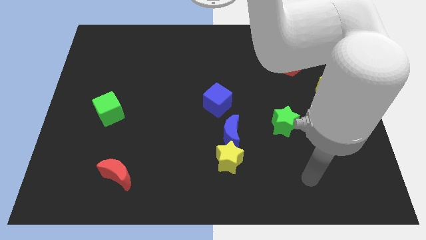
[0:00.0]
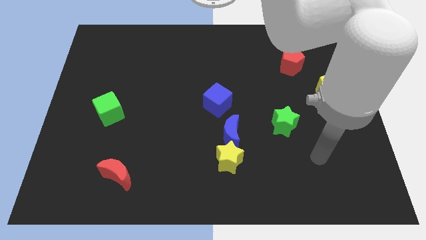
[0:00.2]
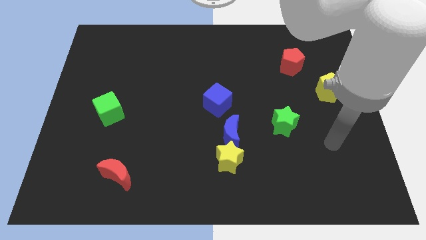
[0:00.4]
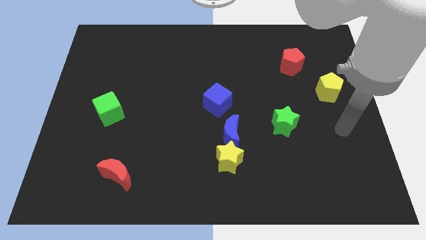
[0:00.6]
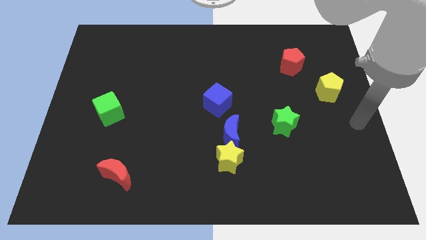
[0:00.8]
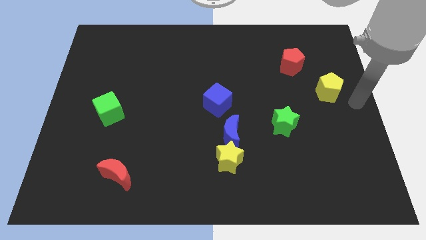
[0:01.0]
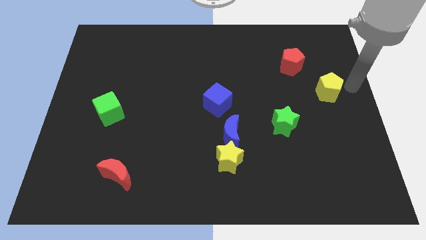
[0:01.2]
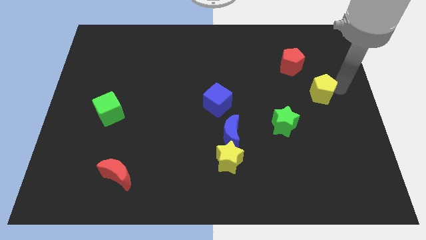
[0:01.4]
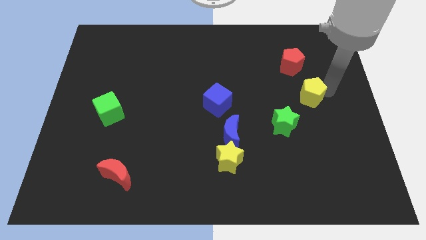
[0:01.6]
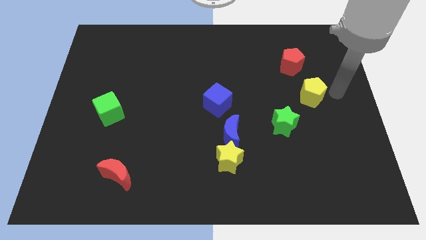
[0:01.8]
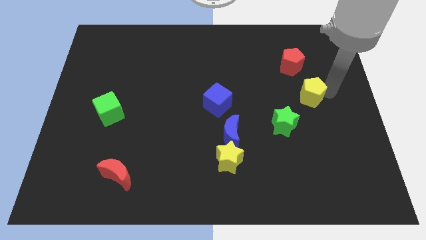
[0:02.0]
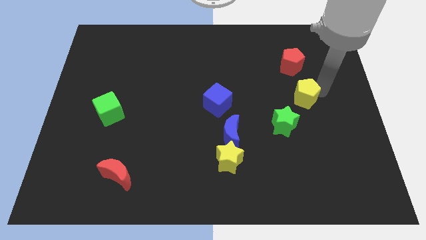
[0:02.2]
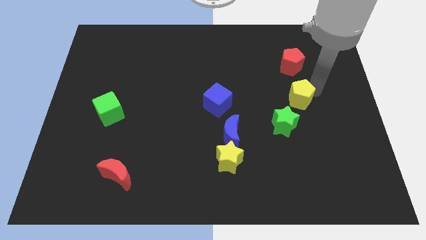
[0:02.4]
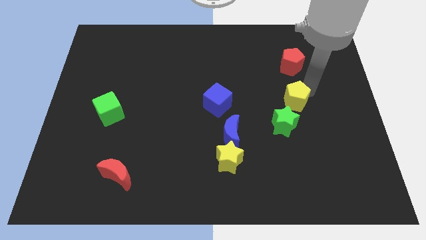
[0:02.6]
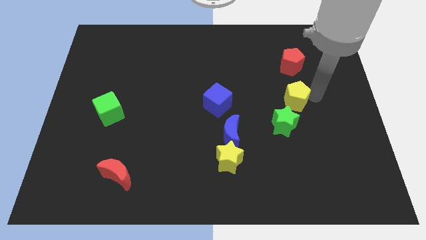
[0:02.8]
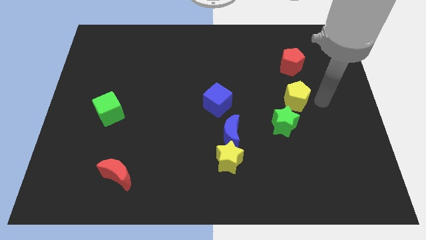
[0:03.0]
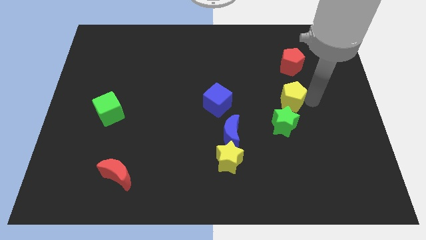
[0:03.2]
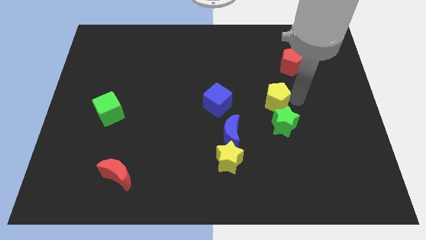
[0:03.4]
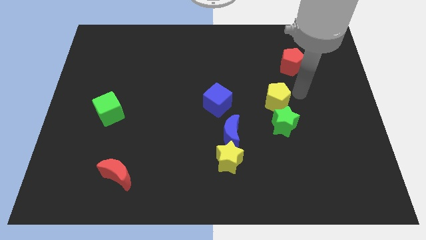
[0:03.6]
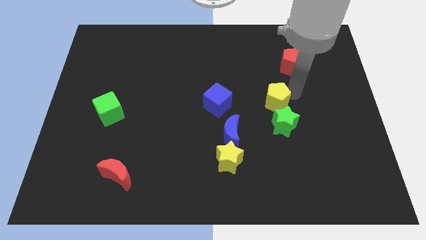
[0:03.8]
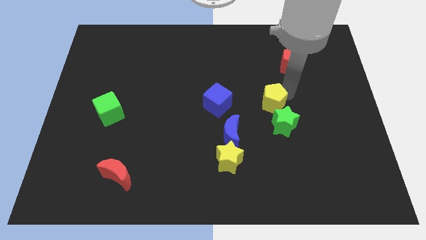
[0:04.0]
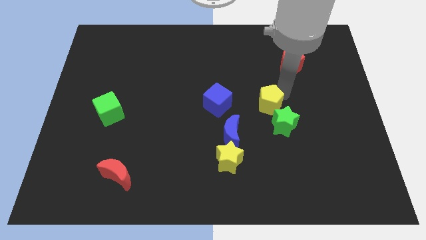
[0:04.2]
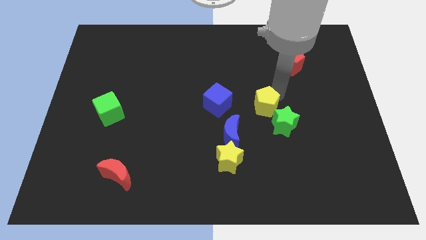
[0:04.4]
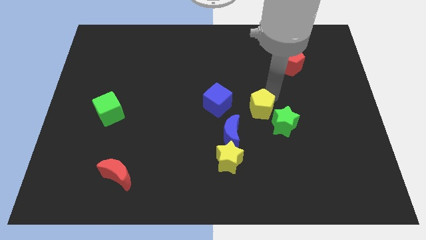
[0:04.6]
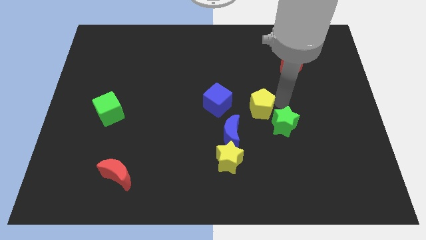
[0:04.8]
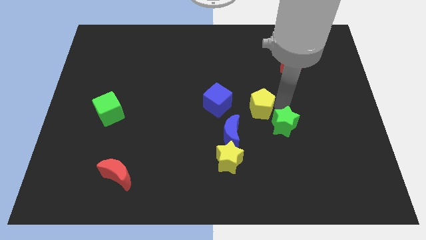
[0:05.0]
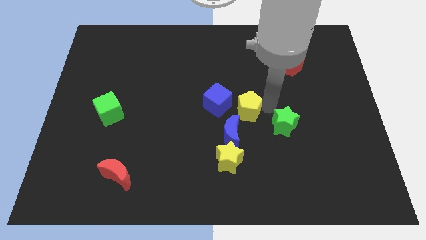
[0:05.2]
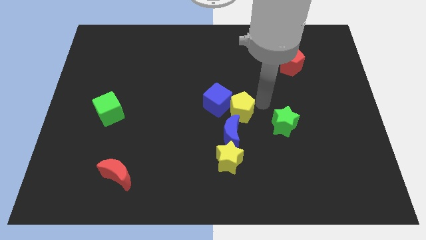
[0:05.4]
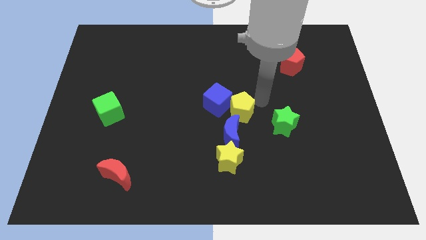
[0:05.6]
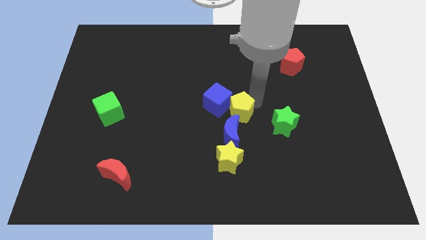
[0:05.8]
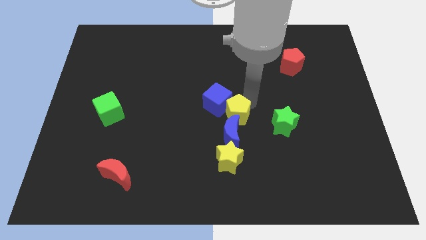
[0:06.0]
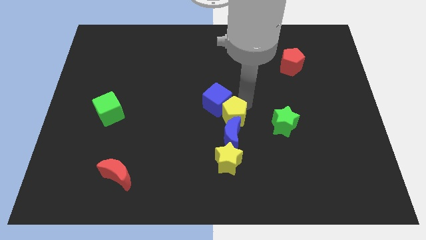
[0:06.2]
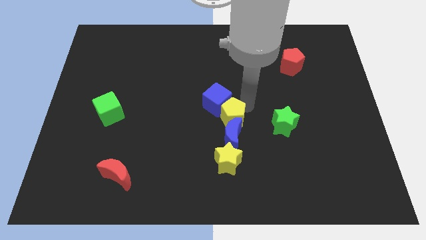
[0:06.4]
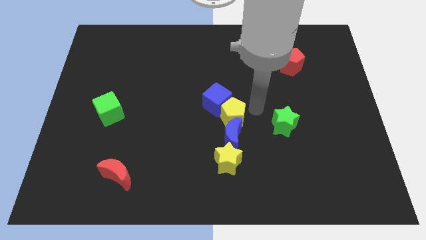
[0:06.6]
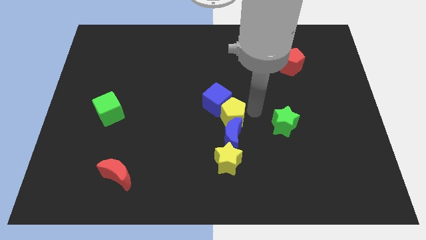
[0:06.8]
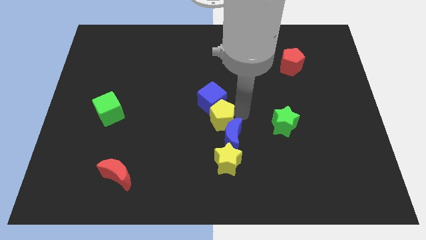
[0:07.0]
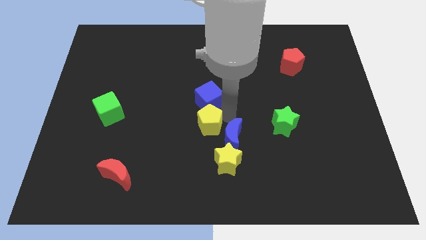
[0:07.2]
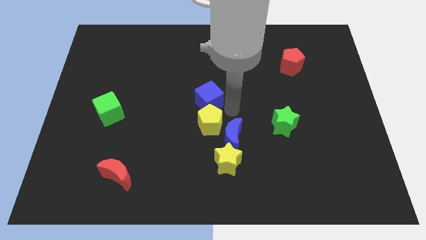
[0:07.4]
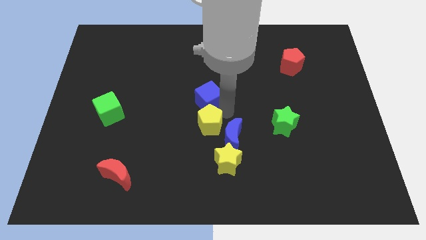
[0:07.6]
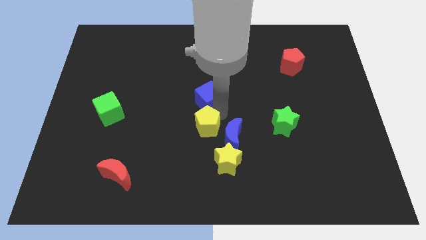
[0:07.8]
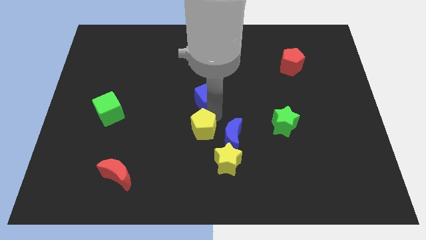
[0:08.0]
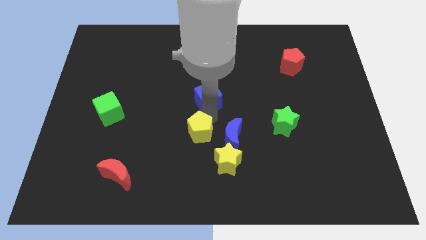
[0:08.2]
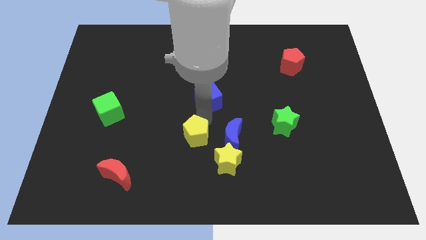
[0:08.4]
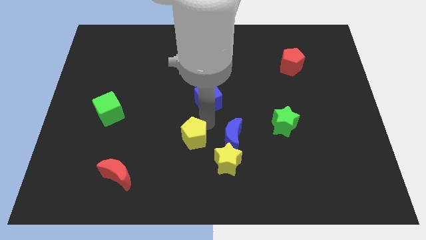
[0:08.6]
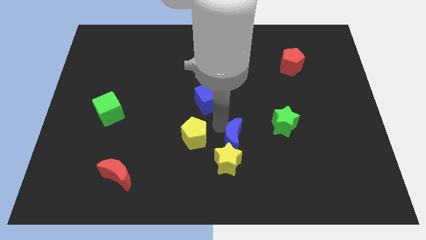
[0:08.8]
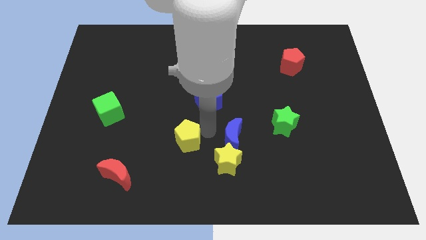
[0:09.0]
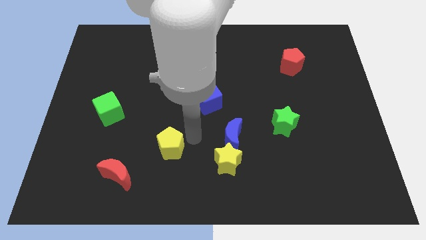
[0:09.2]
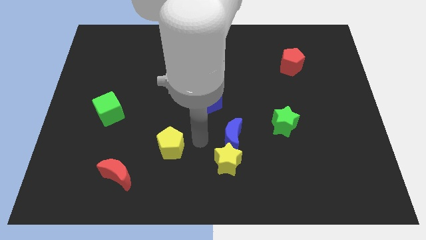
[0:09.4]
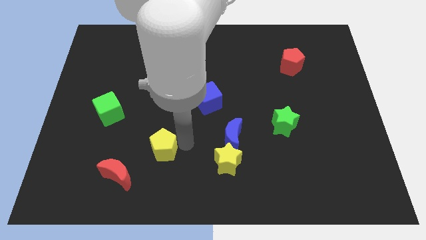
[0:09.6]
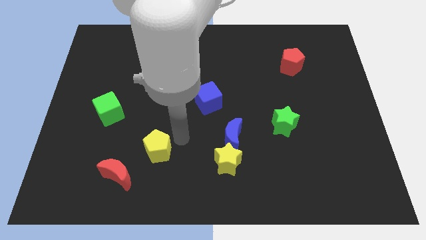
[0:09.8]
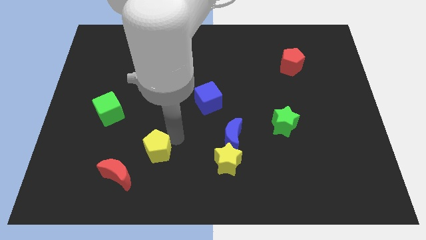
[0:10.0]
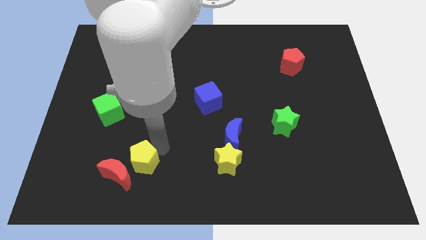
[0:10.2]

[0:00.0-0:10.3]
slide the yellow pentagon towards the red moon

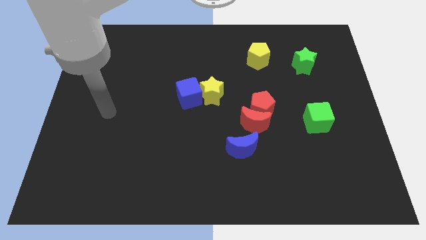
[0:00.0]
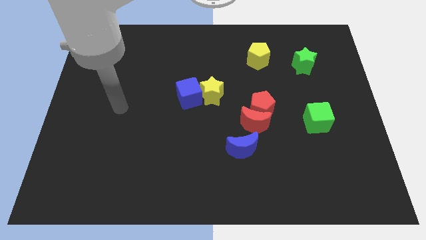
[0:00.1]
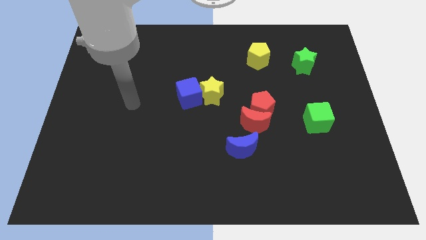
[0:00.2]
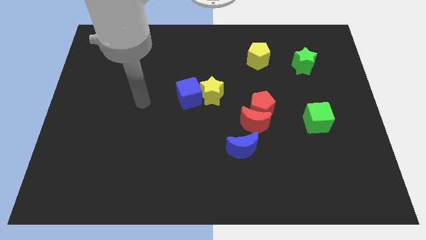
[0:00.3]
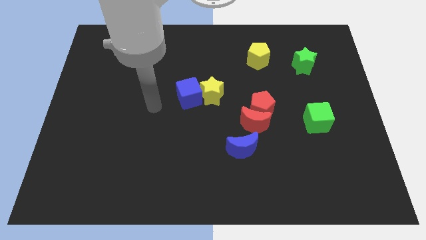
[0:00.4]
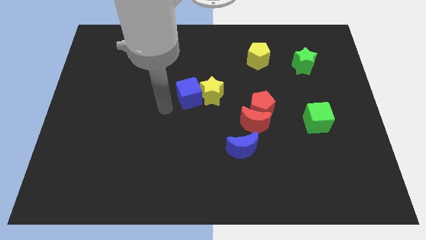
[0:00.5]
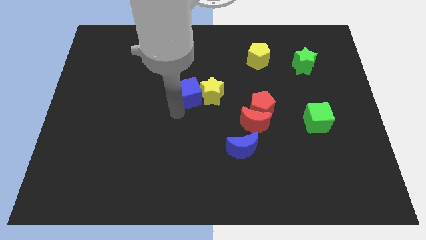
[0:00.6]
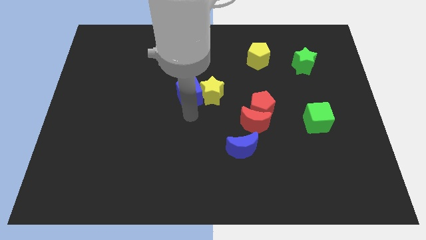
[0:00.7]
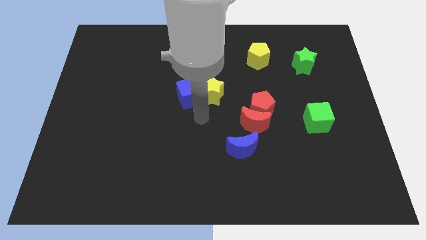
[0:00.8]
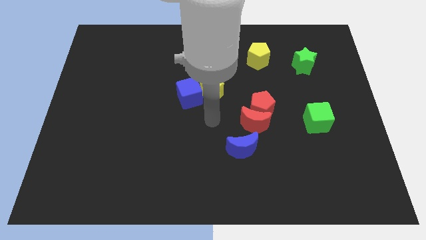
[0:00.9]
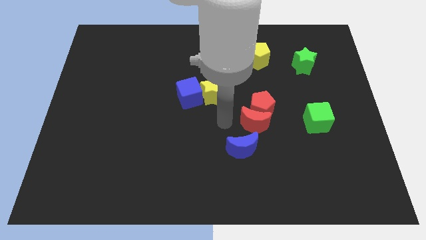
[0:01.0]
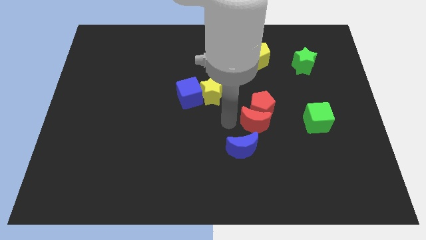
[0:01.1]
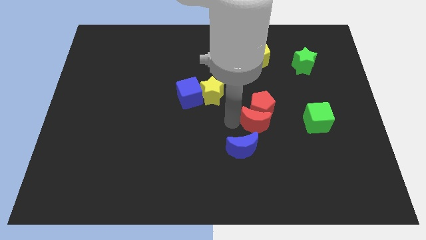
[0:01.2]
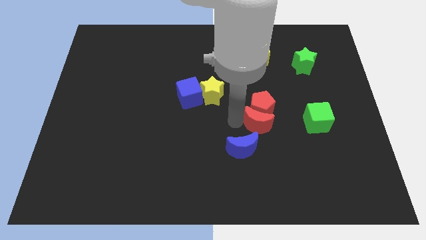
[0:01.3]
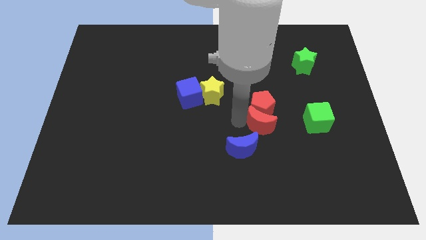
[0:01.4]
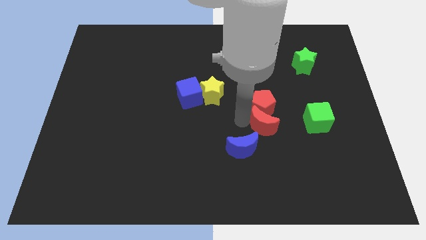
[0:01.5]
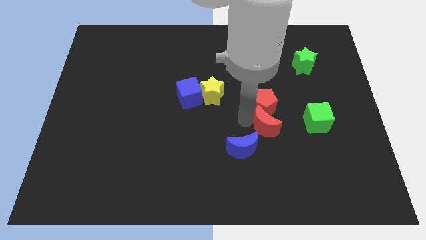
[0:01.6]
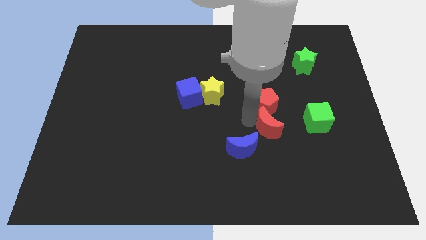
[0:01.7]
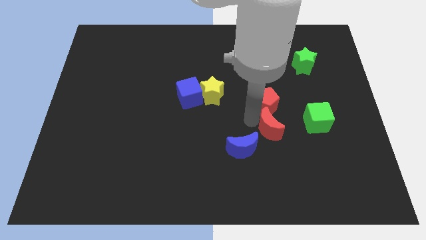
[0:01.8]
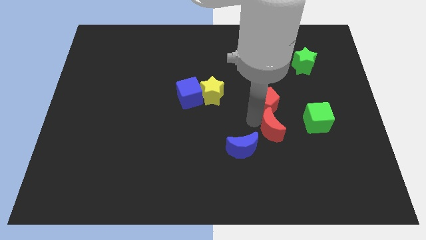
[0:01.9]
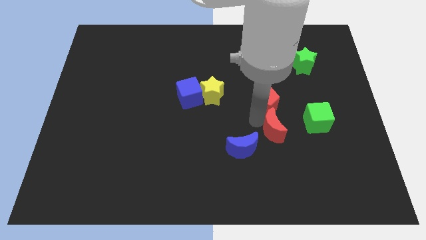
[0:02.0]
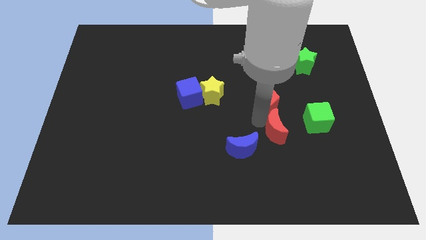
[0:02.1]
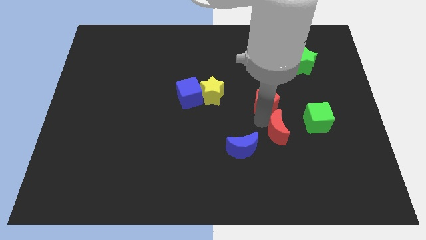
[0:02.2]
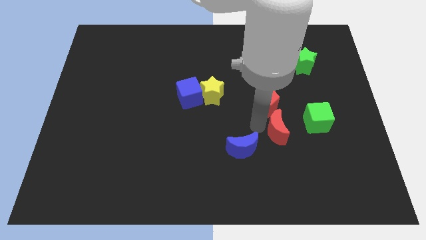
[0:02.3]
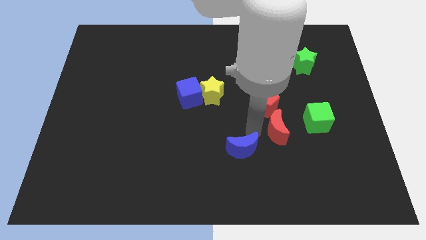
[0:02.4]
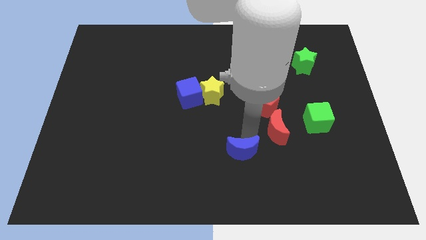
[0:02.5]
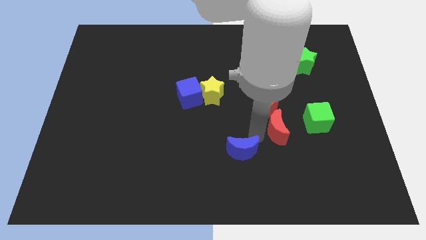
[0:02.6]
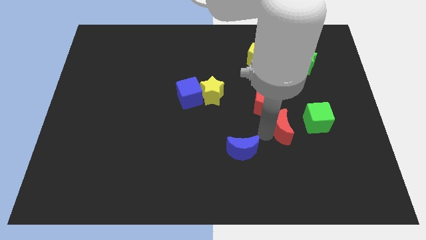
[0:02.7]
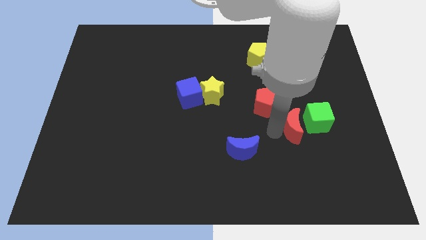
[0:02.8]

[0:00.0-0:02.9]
move the red moon close to the green cube
